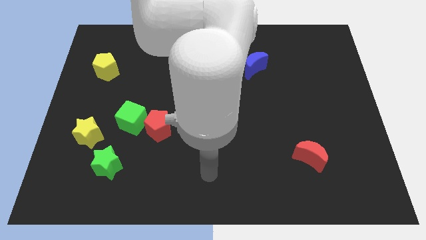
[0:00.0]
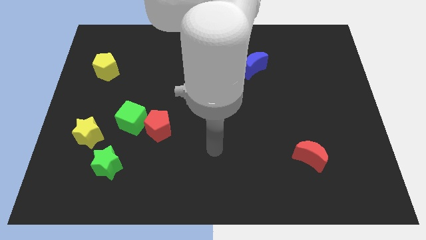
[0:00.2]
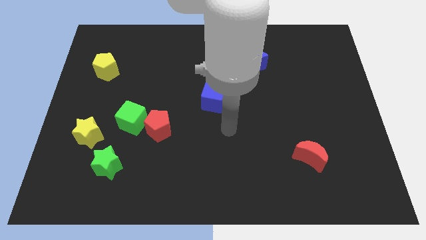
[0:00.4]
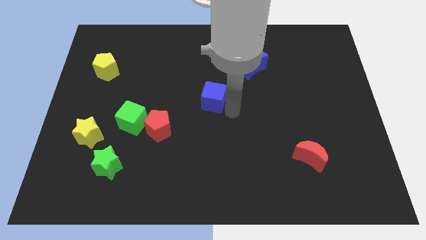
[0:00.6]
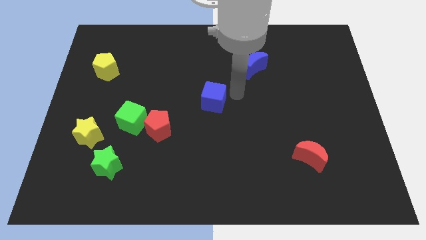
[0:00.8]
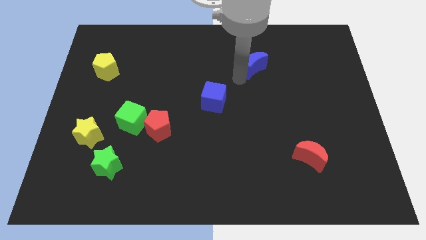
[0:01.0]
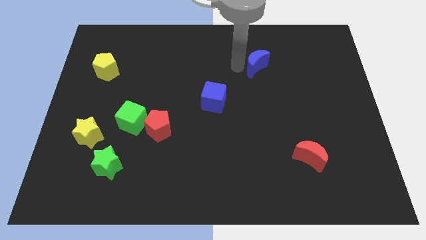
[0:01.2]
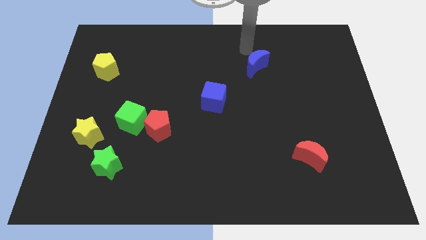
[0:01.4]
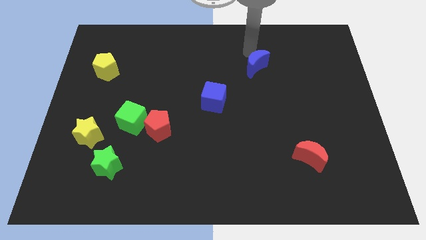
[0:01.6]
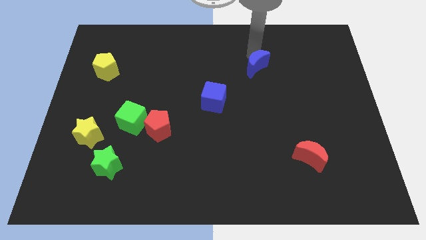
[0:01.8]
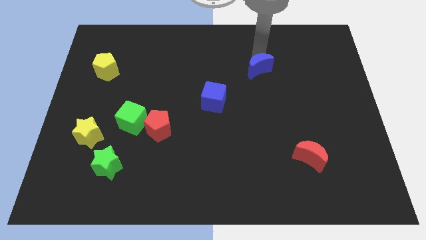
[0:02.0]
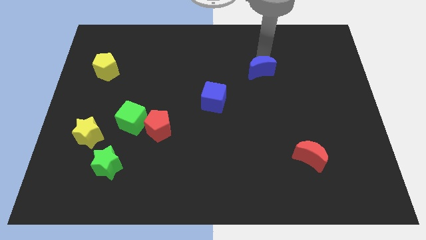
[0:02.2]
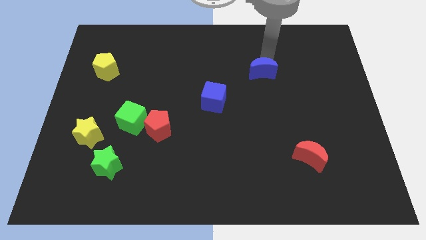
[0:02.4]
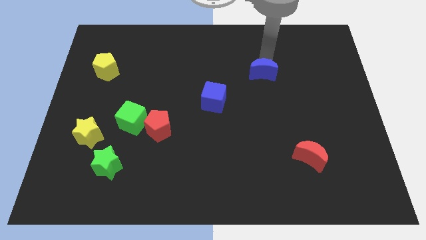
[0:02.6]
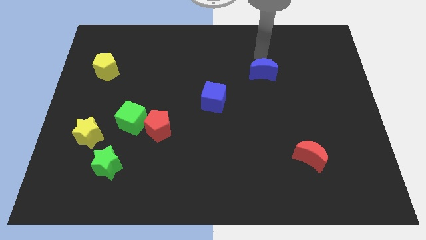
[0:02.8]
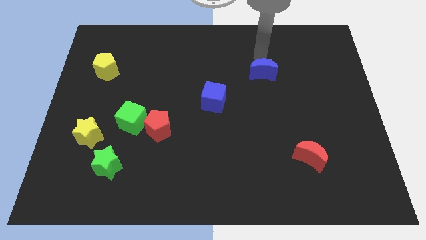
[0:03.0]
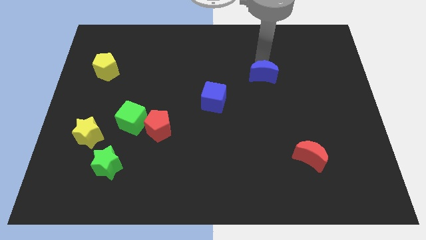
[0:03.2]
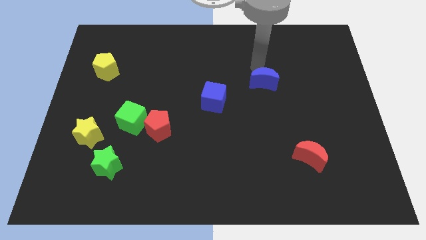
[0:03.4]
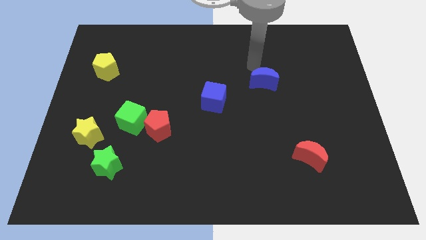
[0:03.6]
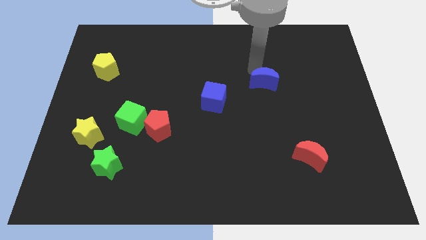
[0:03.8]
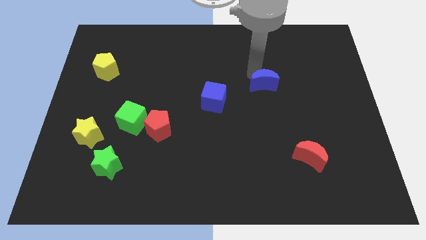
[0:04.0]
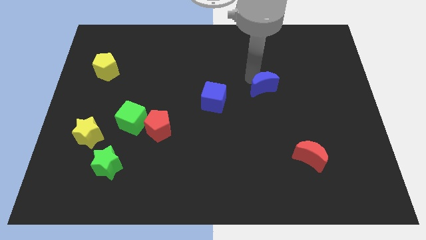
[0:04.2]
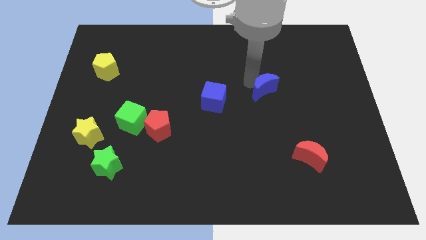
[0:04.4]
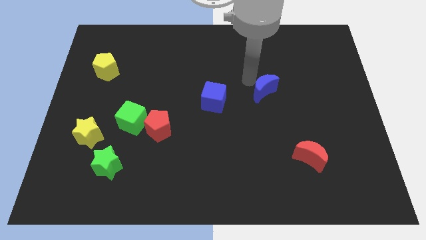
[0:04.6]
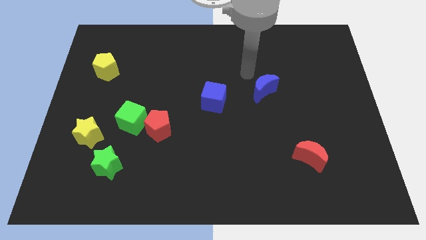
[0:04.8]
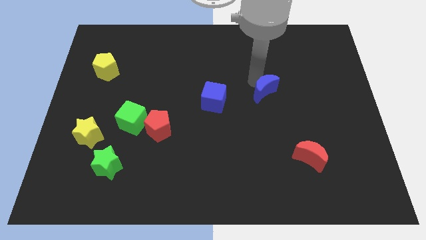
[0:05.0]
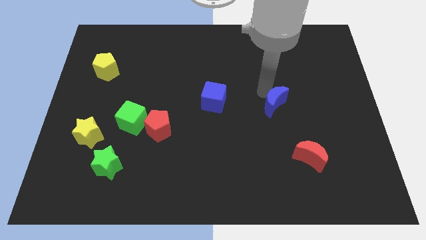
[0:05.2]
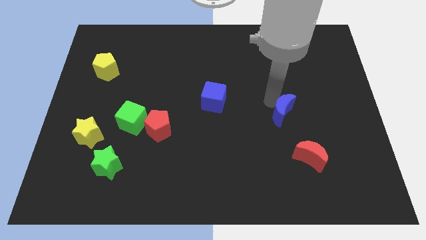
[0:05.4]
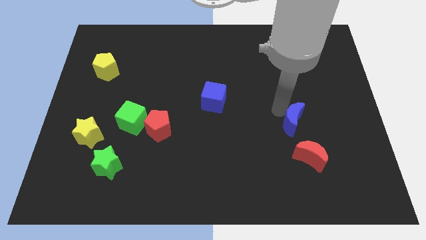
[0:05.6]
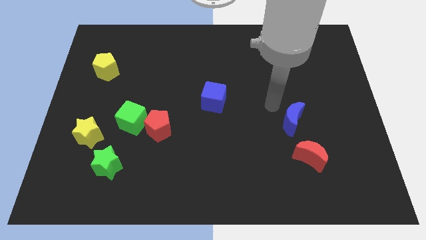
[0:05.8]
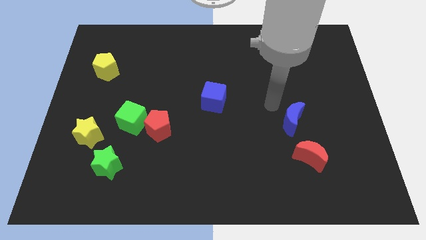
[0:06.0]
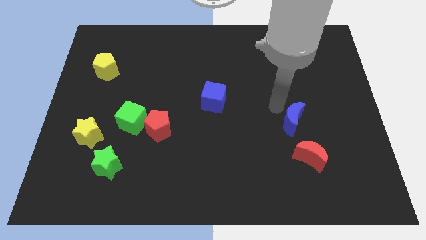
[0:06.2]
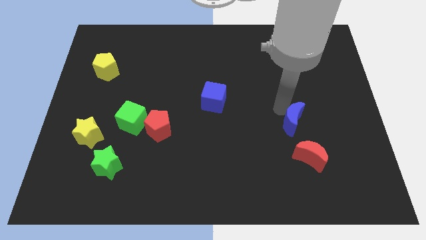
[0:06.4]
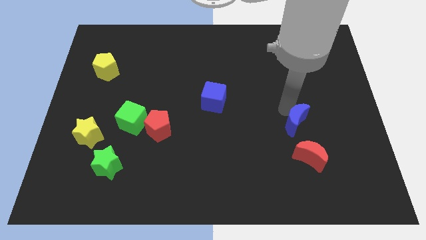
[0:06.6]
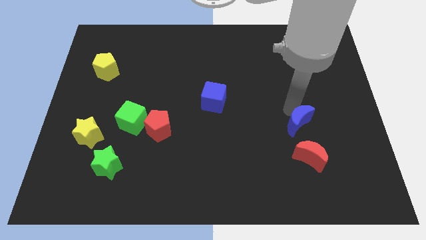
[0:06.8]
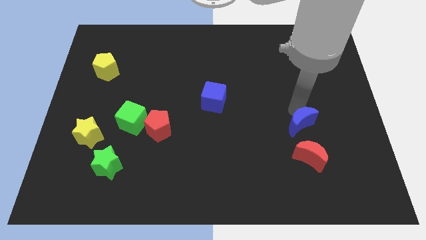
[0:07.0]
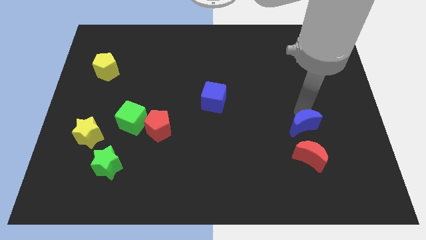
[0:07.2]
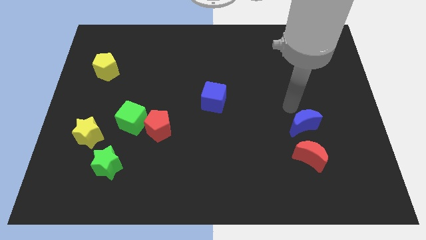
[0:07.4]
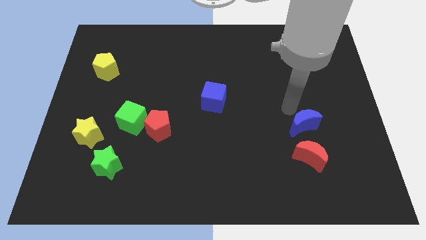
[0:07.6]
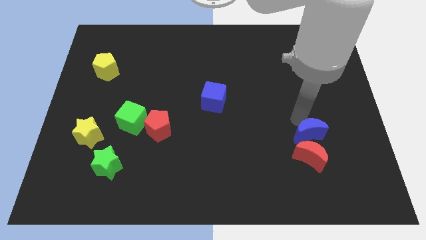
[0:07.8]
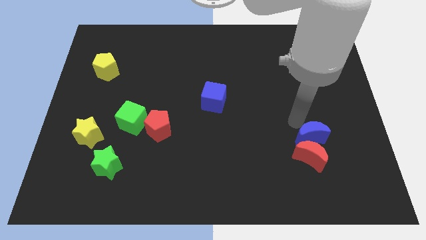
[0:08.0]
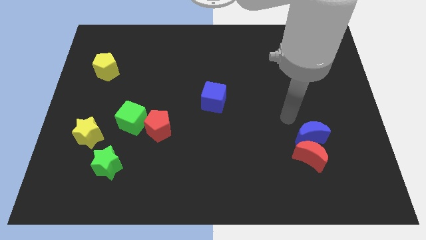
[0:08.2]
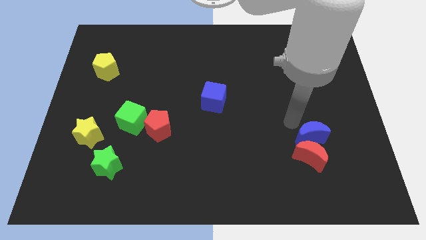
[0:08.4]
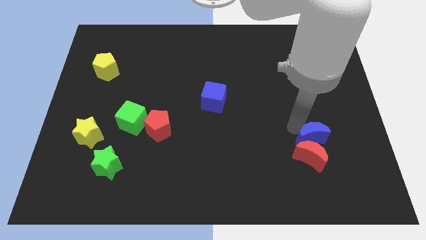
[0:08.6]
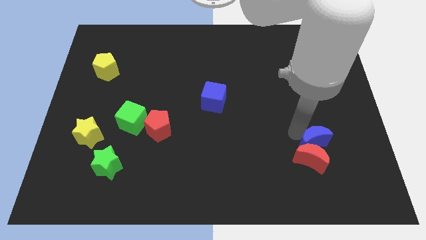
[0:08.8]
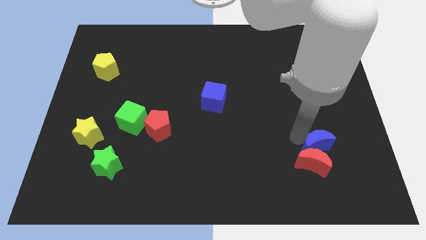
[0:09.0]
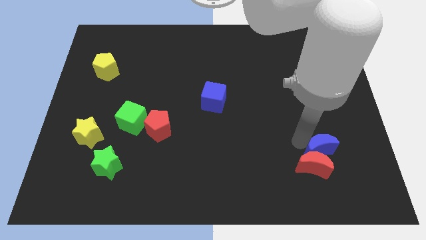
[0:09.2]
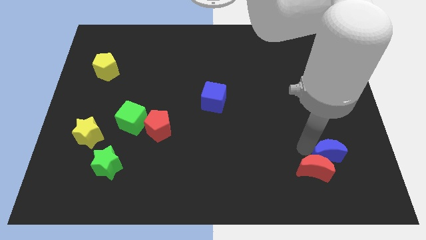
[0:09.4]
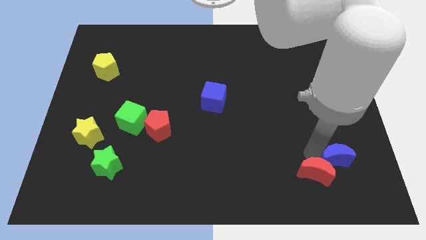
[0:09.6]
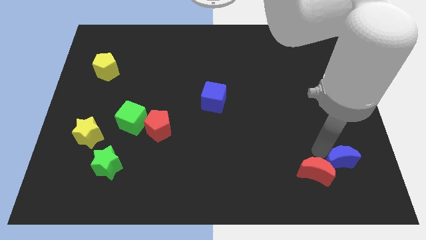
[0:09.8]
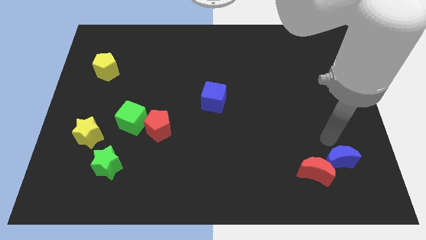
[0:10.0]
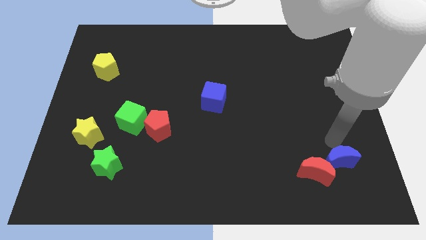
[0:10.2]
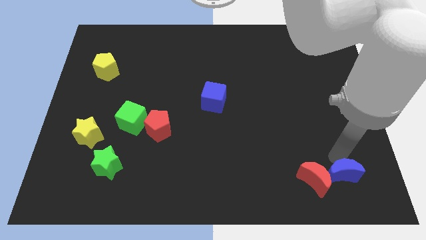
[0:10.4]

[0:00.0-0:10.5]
push the blue moon diagonally down and to the right of the red moon

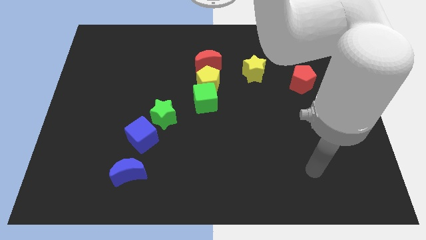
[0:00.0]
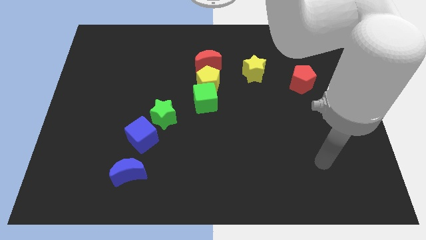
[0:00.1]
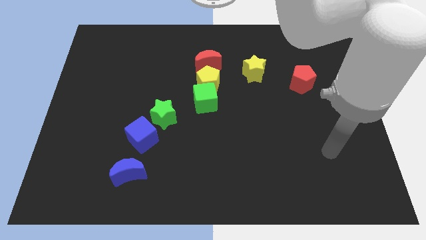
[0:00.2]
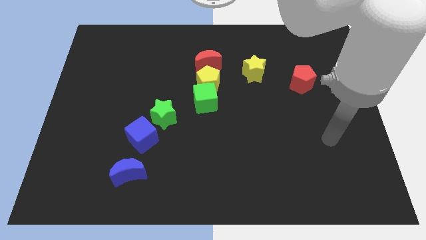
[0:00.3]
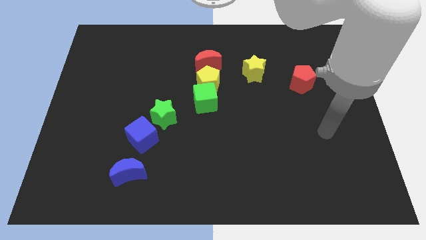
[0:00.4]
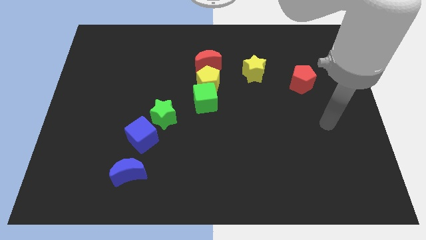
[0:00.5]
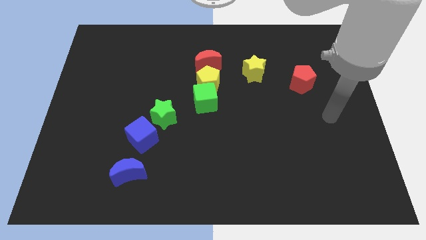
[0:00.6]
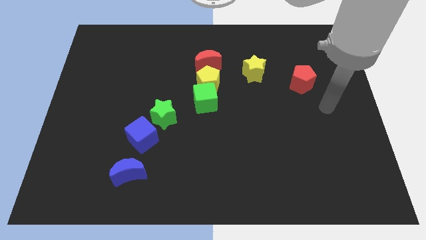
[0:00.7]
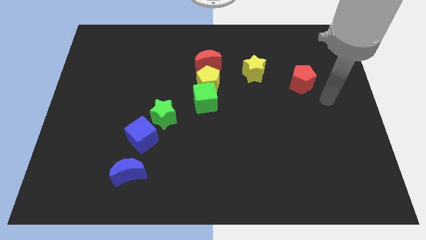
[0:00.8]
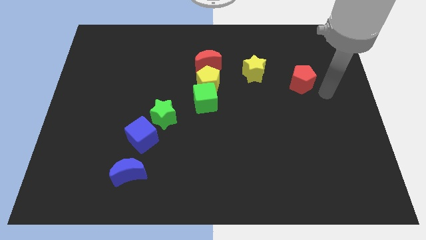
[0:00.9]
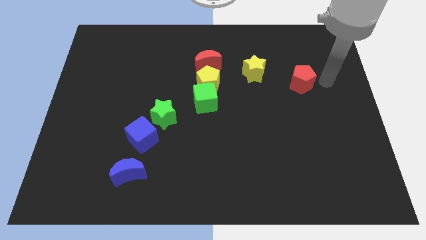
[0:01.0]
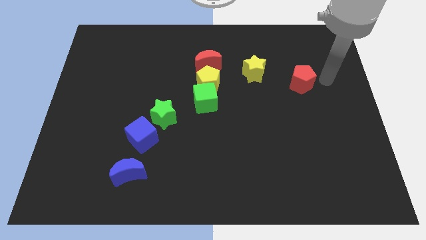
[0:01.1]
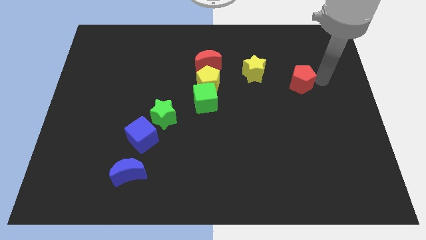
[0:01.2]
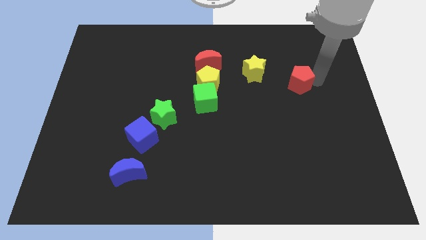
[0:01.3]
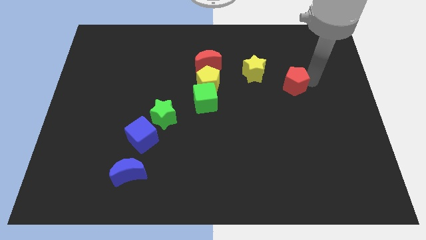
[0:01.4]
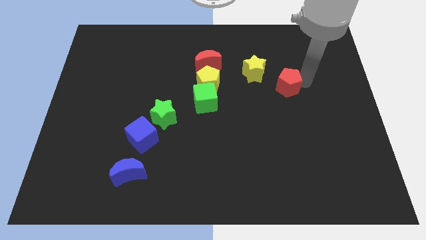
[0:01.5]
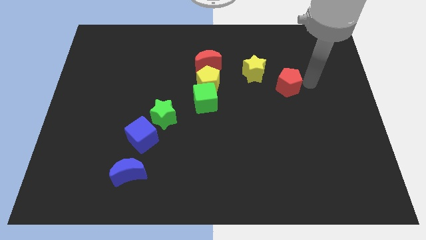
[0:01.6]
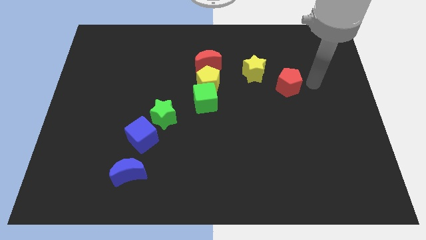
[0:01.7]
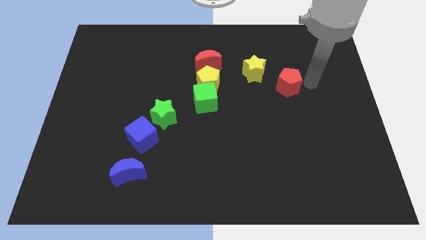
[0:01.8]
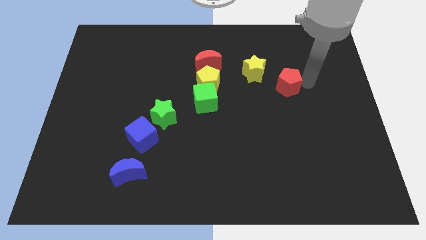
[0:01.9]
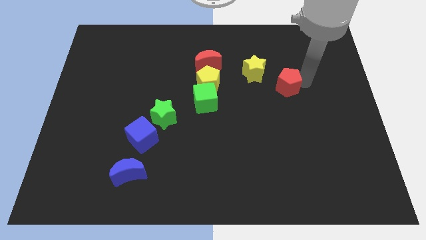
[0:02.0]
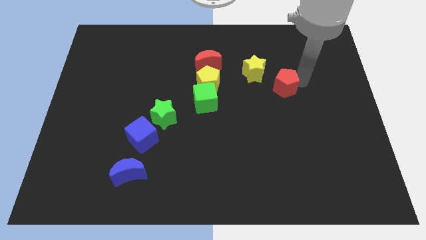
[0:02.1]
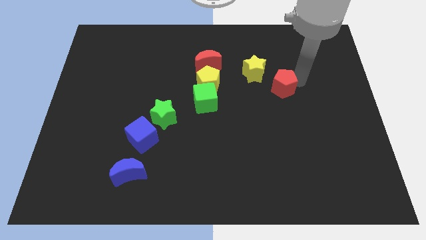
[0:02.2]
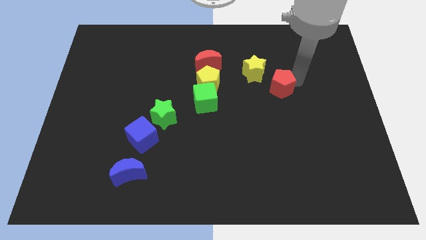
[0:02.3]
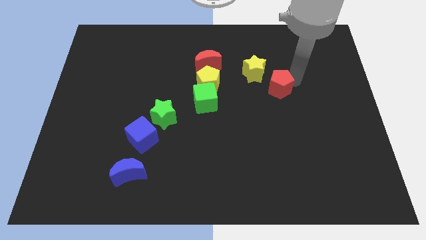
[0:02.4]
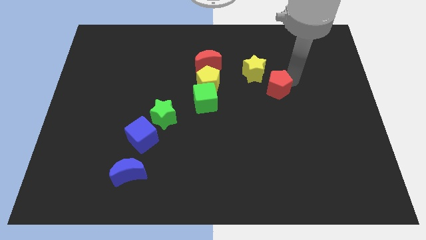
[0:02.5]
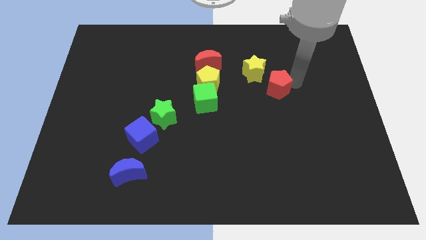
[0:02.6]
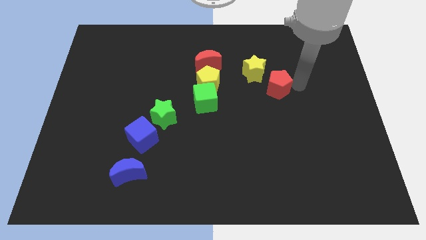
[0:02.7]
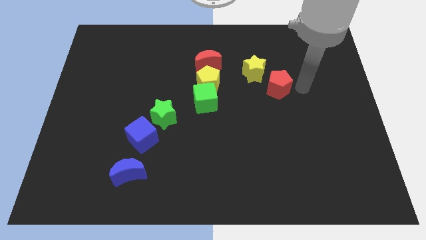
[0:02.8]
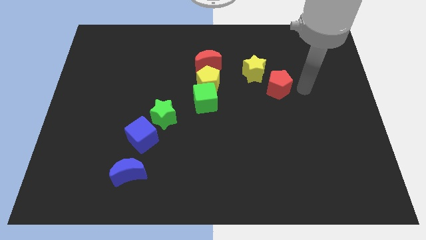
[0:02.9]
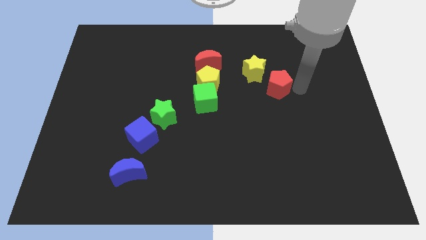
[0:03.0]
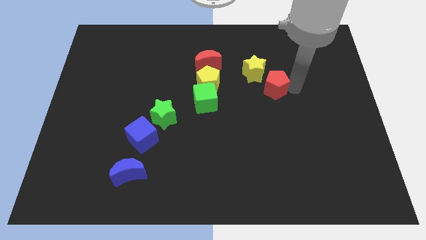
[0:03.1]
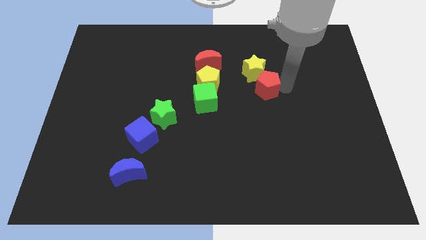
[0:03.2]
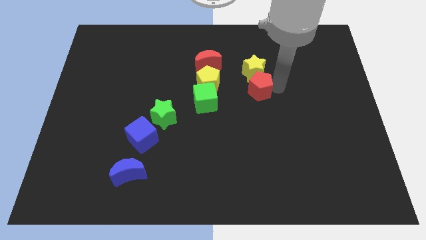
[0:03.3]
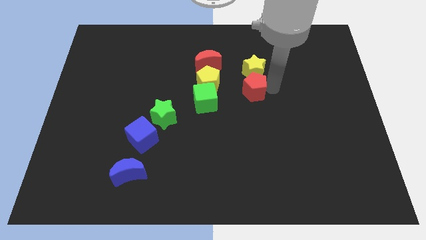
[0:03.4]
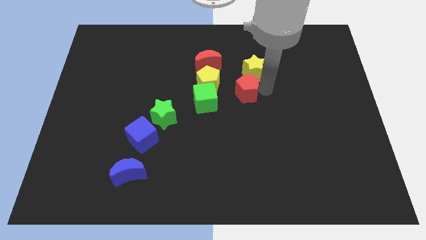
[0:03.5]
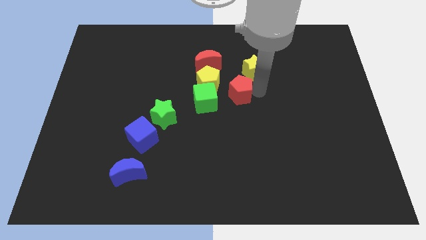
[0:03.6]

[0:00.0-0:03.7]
push the red pentagon to the bottom right side of the red moon
